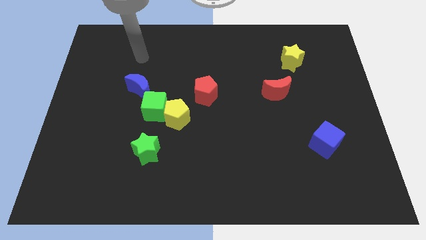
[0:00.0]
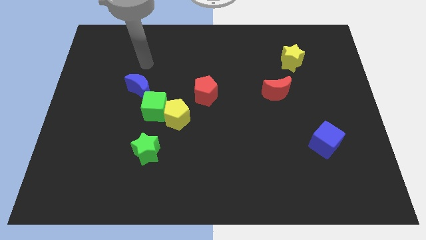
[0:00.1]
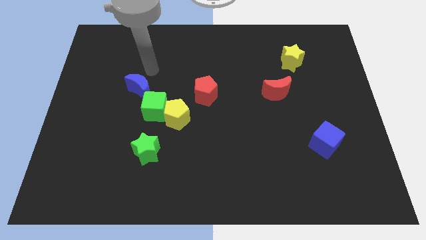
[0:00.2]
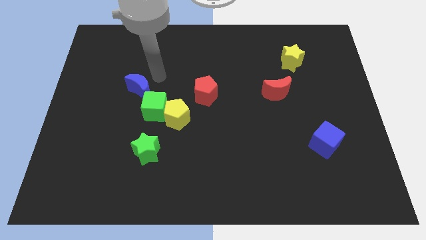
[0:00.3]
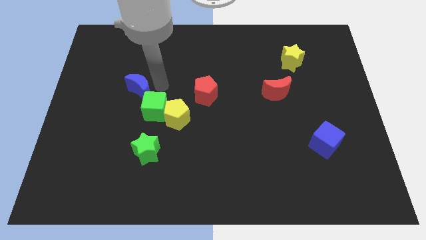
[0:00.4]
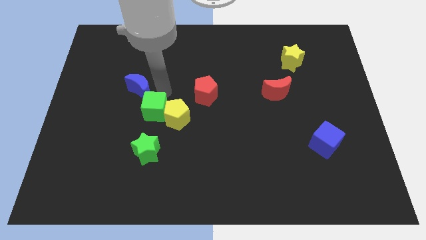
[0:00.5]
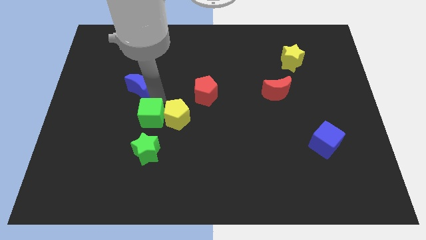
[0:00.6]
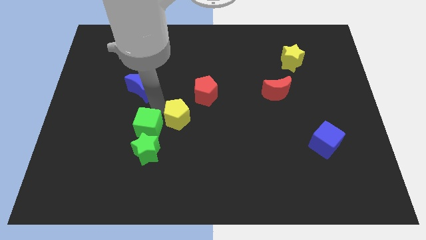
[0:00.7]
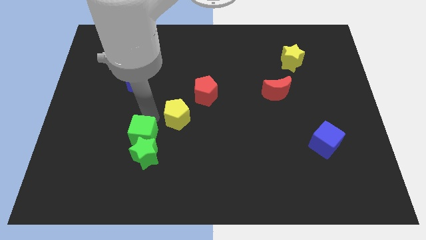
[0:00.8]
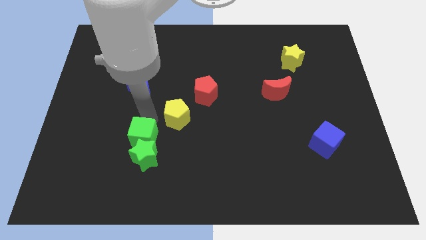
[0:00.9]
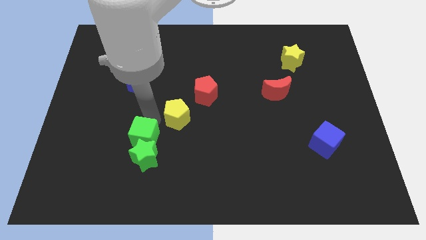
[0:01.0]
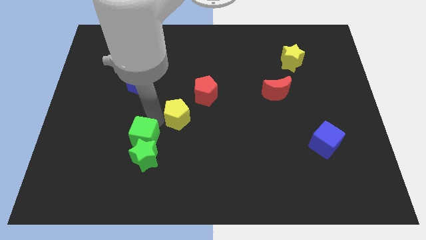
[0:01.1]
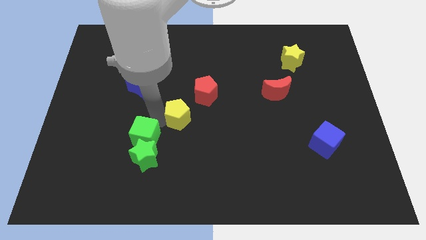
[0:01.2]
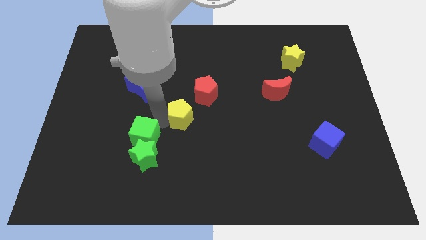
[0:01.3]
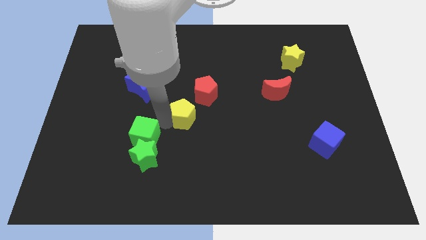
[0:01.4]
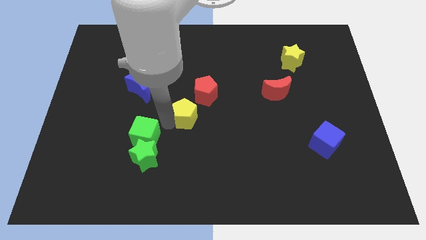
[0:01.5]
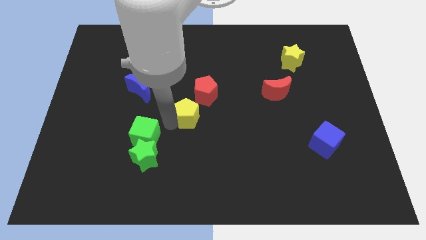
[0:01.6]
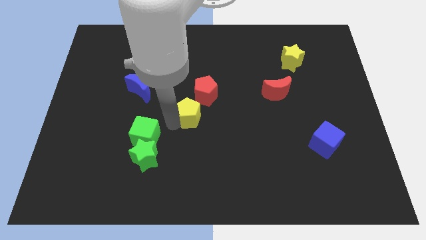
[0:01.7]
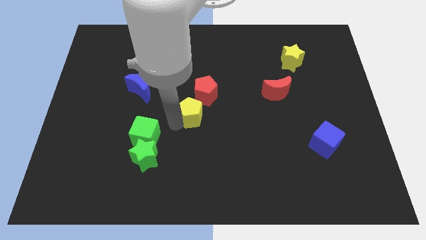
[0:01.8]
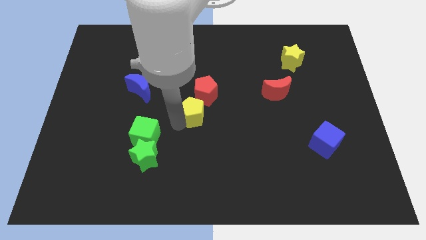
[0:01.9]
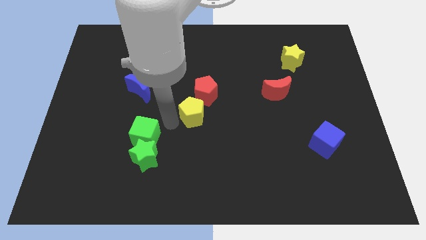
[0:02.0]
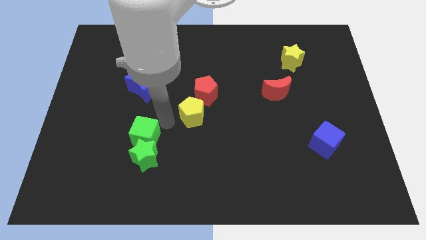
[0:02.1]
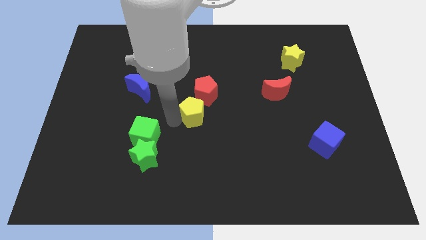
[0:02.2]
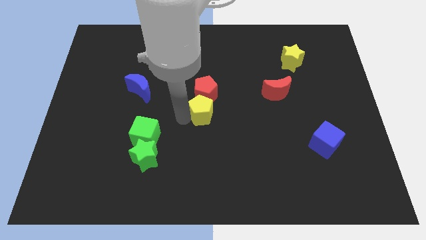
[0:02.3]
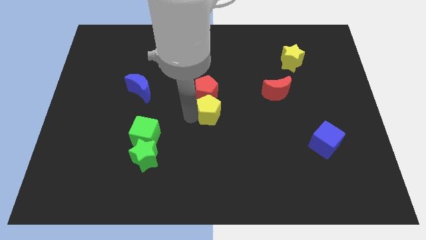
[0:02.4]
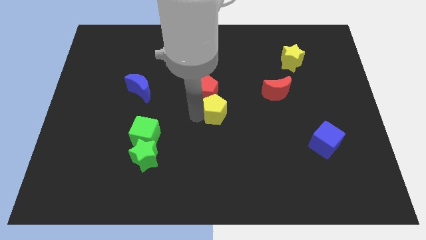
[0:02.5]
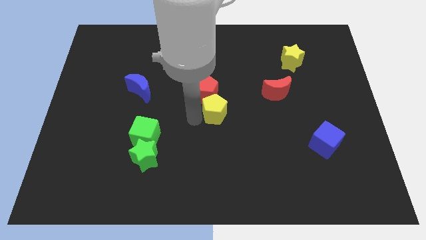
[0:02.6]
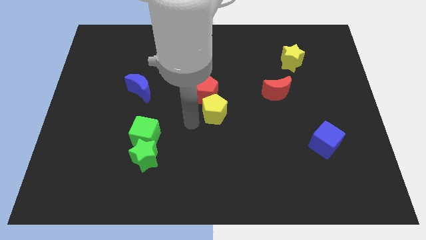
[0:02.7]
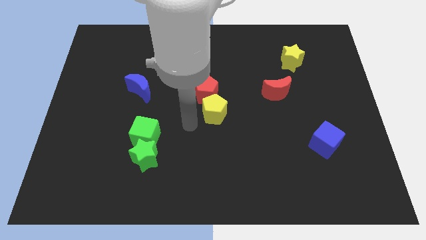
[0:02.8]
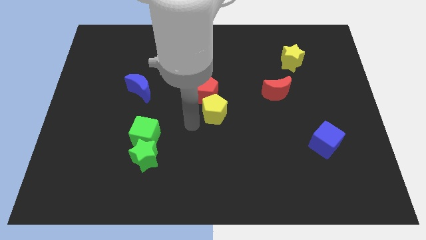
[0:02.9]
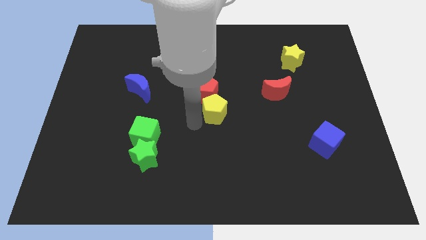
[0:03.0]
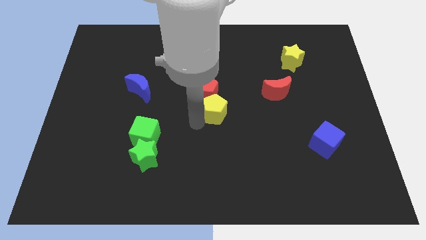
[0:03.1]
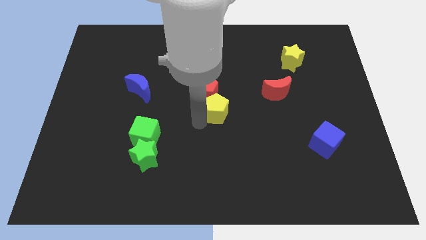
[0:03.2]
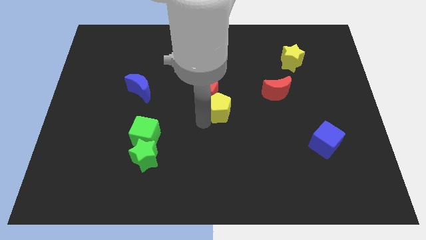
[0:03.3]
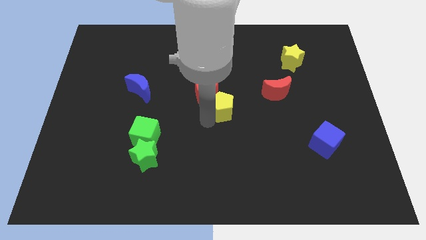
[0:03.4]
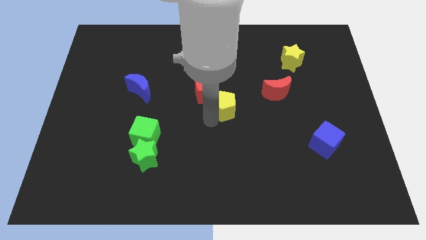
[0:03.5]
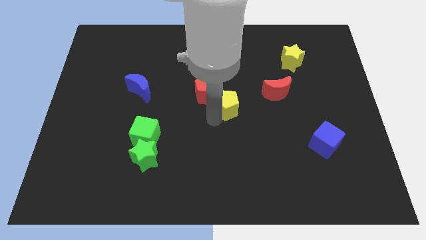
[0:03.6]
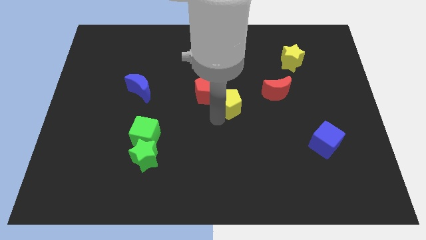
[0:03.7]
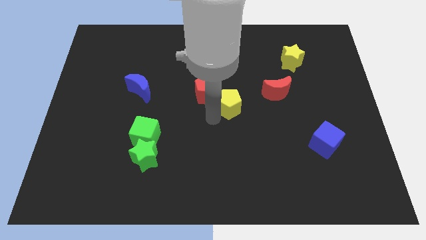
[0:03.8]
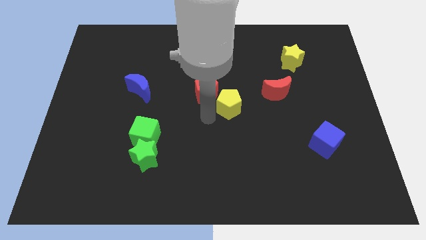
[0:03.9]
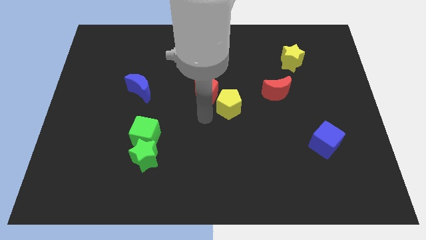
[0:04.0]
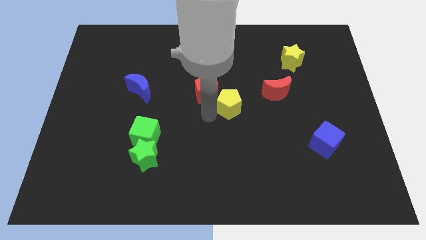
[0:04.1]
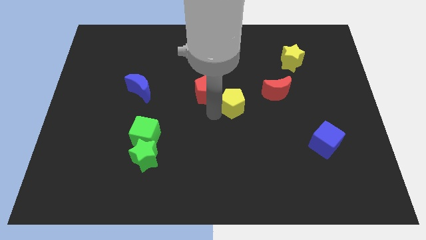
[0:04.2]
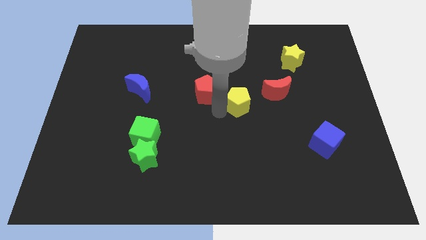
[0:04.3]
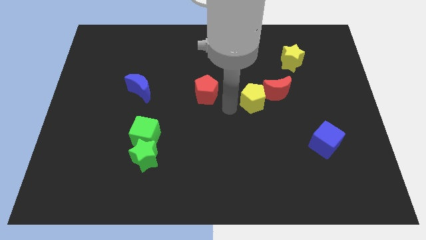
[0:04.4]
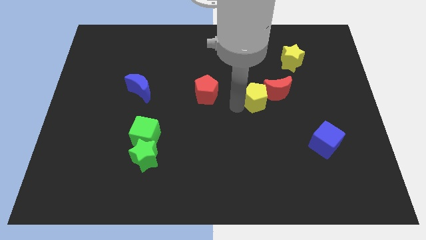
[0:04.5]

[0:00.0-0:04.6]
push the yellow pentagon close to the red moon

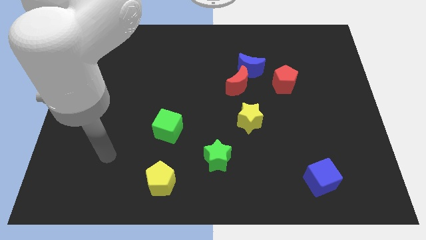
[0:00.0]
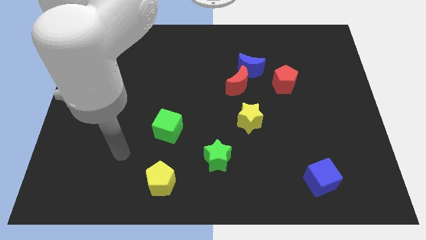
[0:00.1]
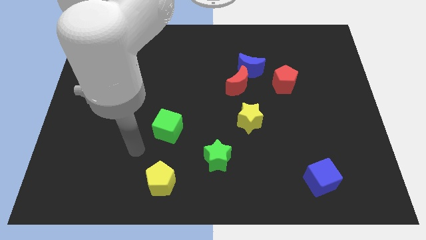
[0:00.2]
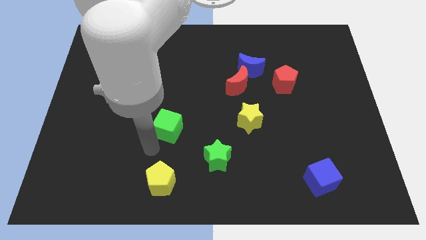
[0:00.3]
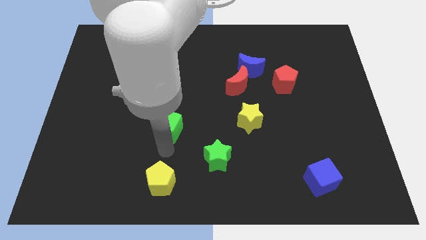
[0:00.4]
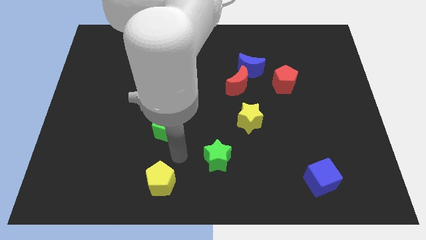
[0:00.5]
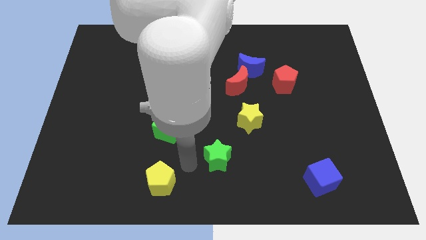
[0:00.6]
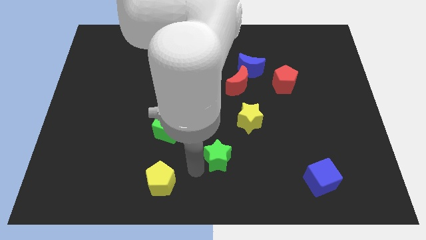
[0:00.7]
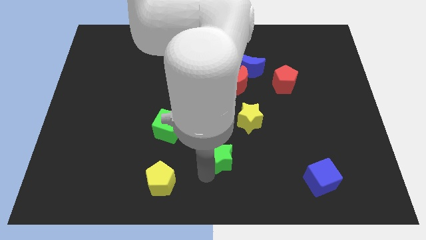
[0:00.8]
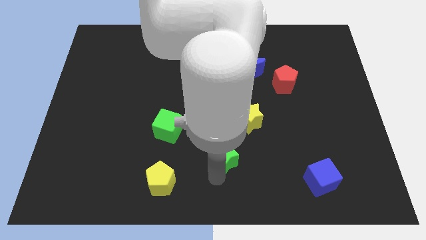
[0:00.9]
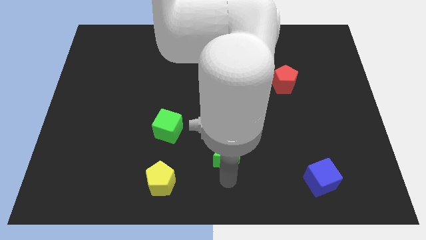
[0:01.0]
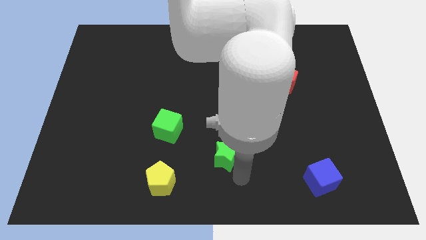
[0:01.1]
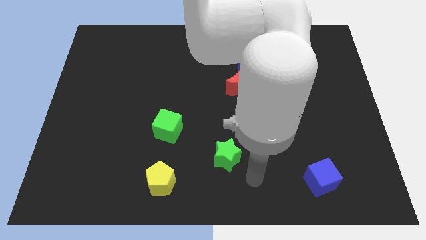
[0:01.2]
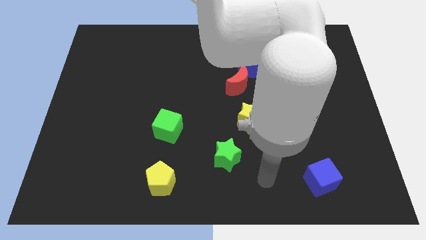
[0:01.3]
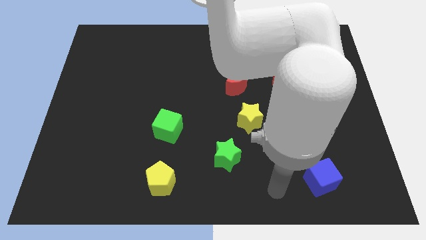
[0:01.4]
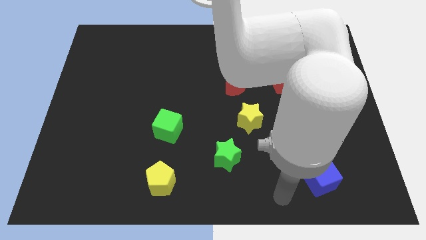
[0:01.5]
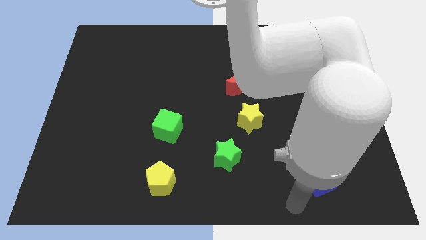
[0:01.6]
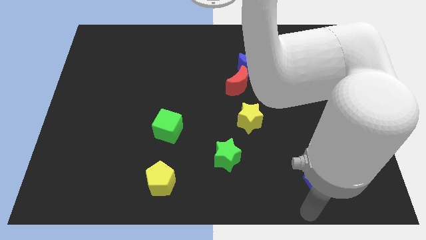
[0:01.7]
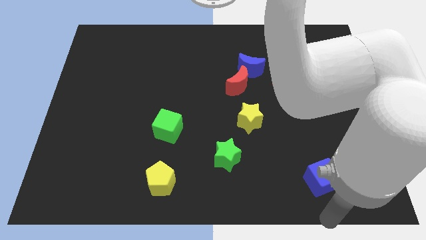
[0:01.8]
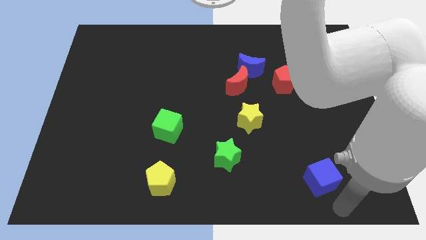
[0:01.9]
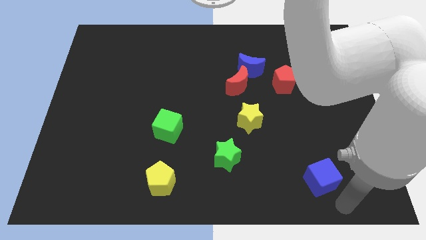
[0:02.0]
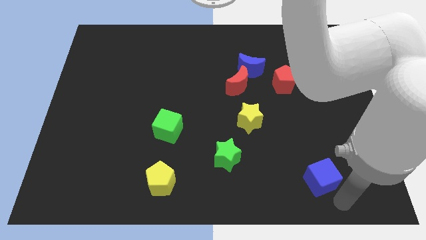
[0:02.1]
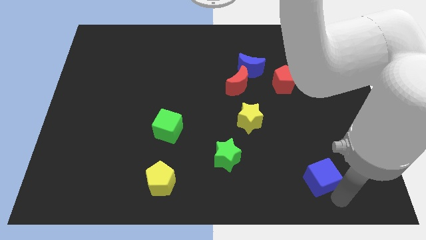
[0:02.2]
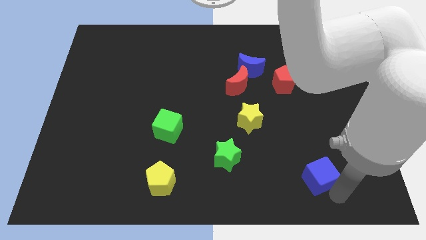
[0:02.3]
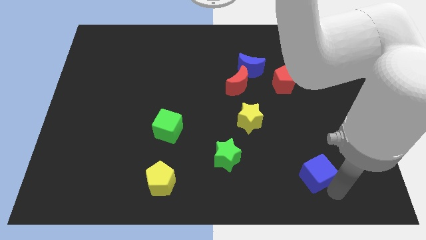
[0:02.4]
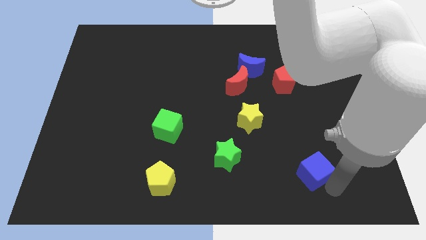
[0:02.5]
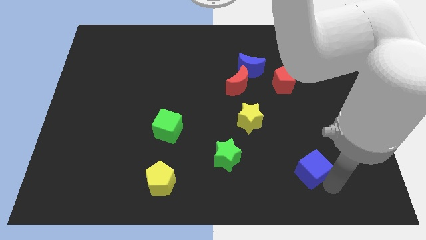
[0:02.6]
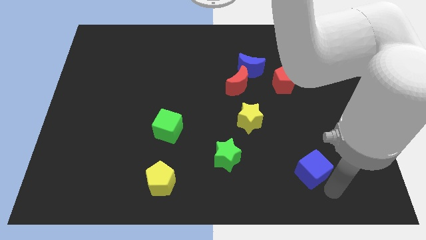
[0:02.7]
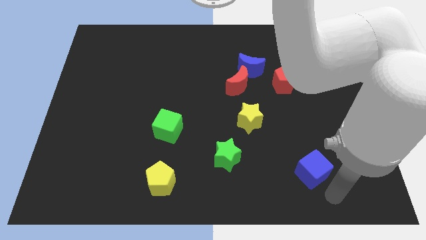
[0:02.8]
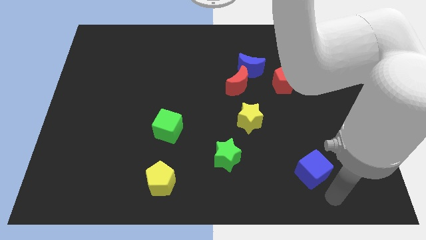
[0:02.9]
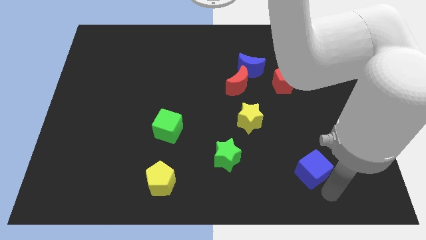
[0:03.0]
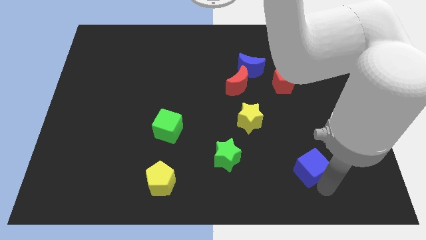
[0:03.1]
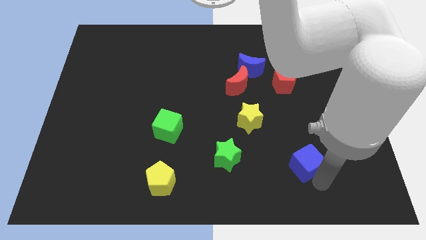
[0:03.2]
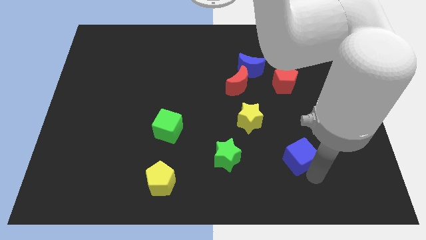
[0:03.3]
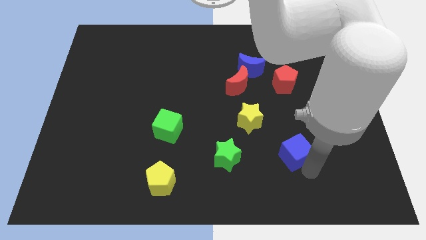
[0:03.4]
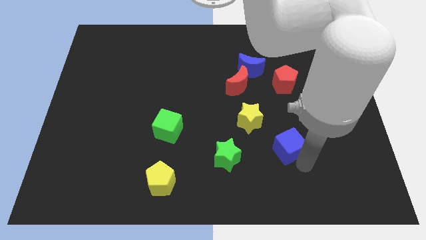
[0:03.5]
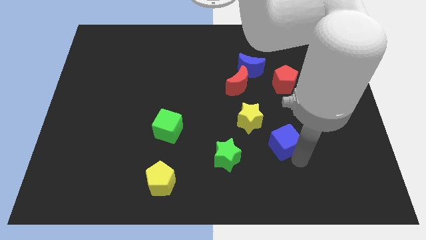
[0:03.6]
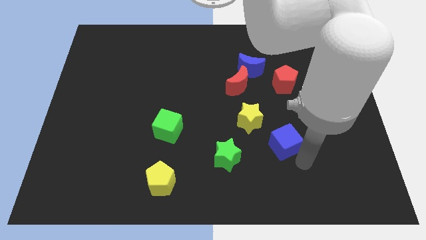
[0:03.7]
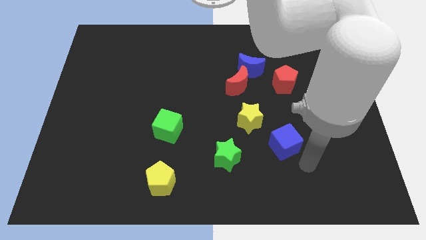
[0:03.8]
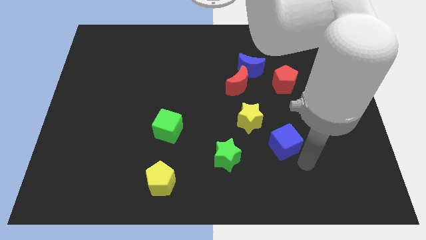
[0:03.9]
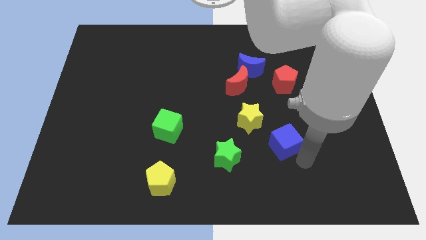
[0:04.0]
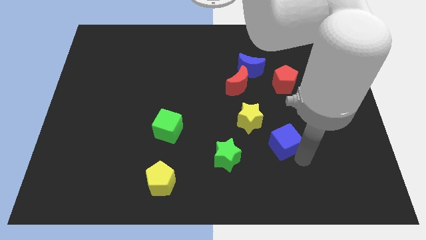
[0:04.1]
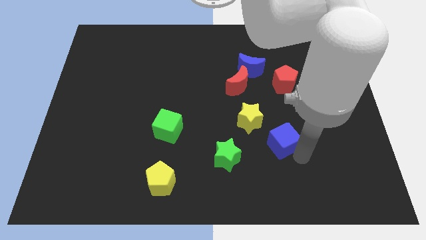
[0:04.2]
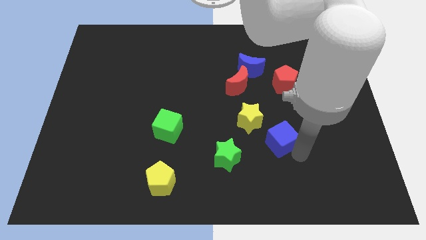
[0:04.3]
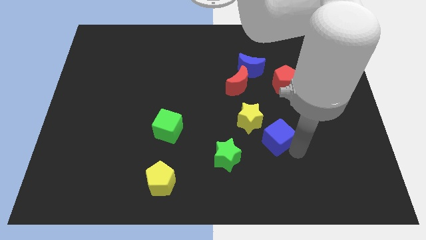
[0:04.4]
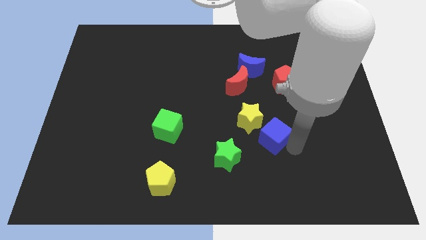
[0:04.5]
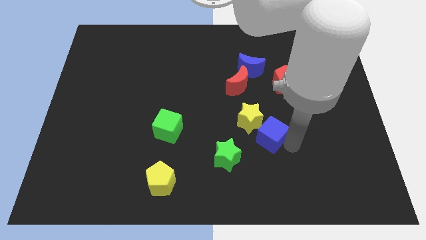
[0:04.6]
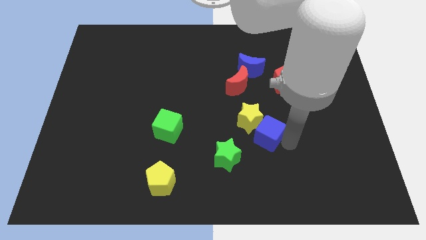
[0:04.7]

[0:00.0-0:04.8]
push the blue cube to the yellow star
